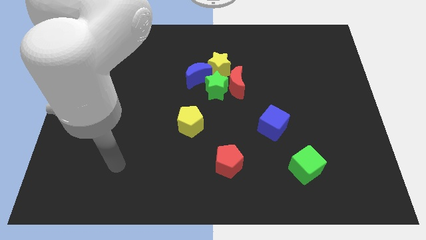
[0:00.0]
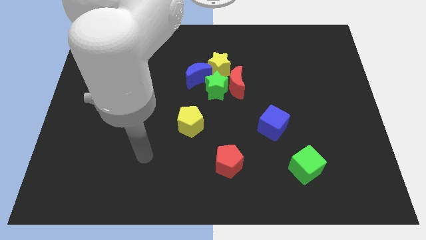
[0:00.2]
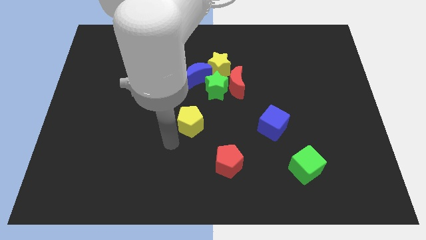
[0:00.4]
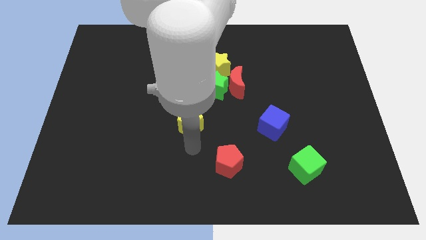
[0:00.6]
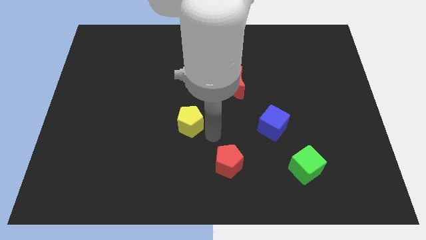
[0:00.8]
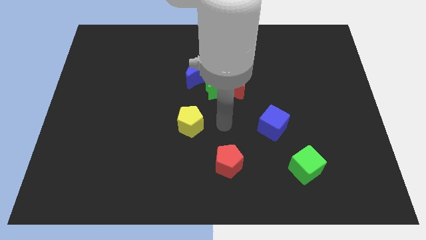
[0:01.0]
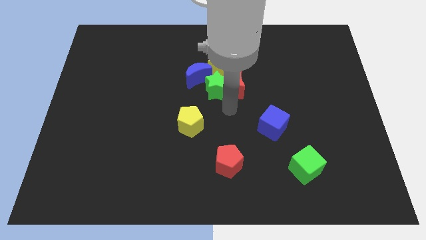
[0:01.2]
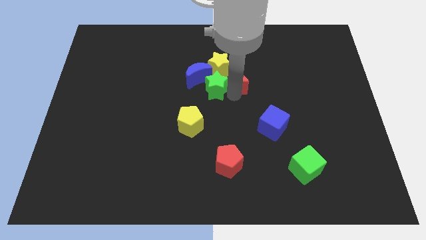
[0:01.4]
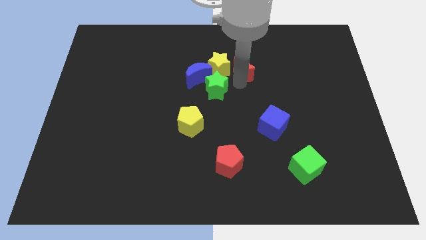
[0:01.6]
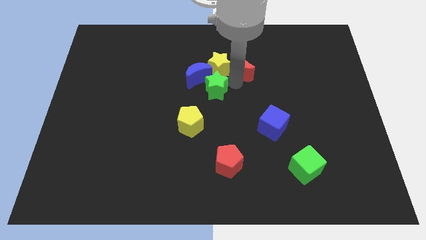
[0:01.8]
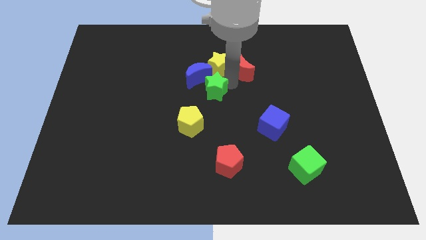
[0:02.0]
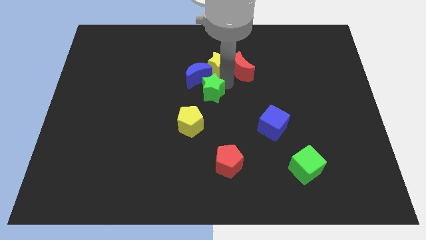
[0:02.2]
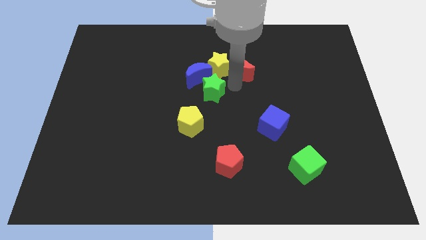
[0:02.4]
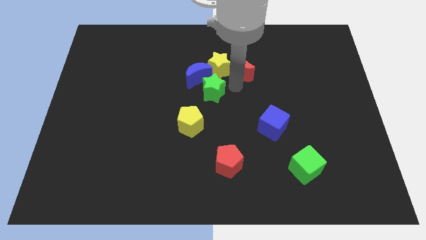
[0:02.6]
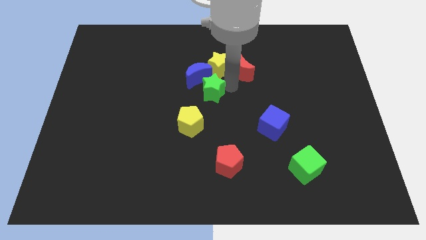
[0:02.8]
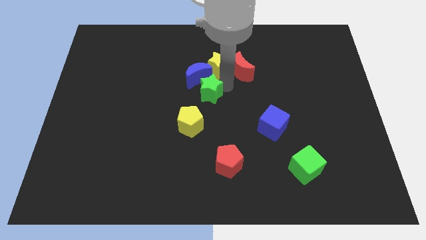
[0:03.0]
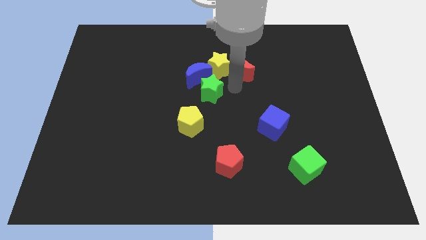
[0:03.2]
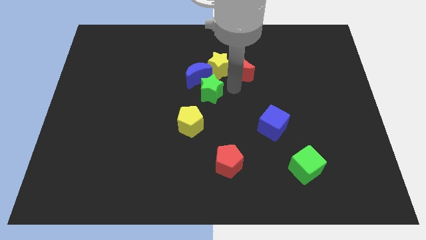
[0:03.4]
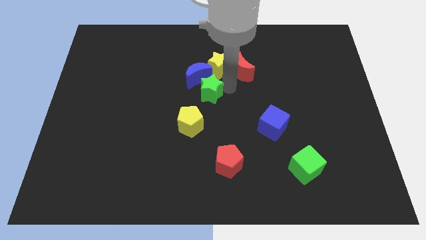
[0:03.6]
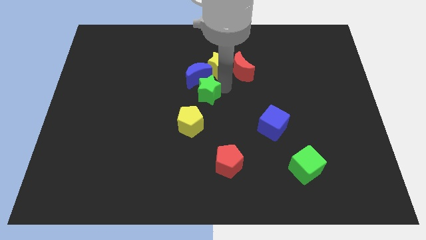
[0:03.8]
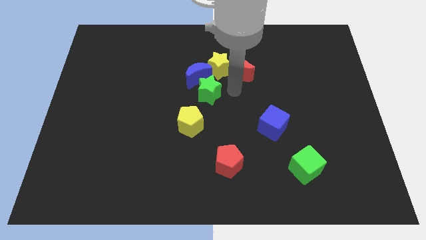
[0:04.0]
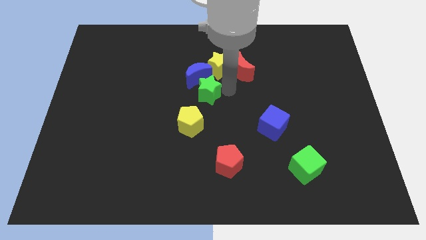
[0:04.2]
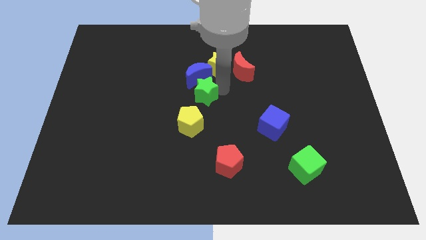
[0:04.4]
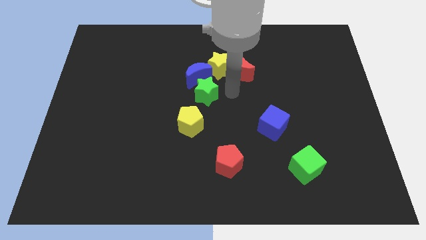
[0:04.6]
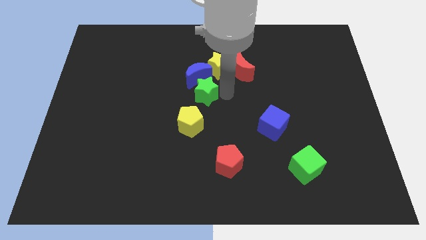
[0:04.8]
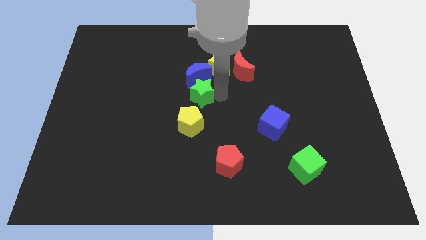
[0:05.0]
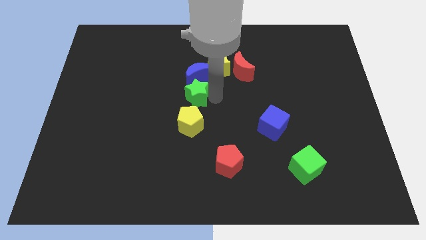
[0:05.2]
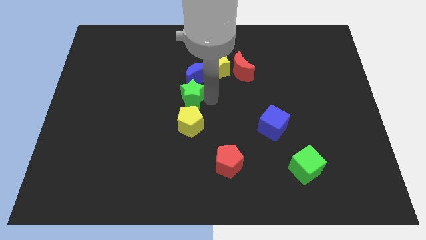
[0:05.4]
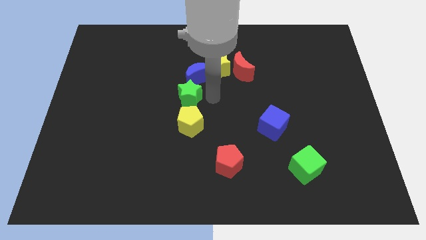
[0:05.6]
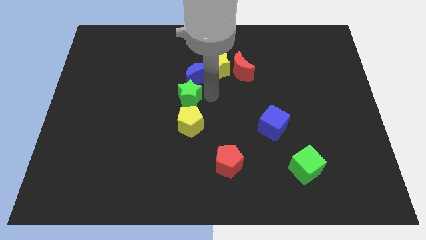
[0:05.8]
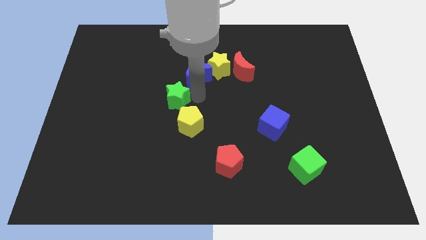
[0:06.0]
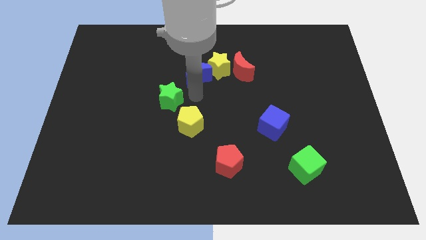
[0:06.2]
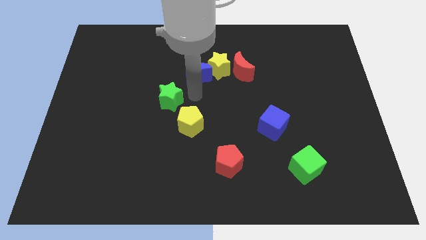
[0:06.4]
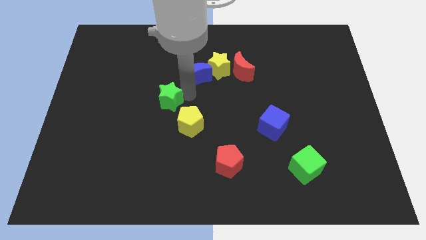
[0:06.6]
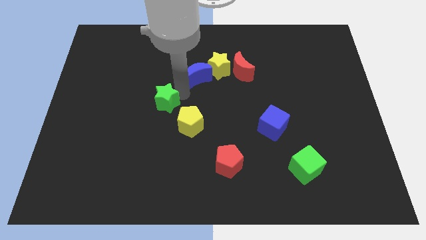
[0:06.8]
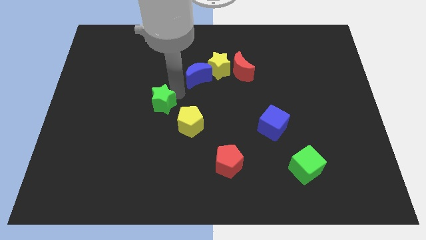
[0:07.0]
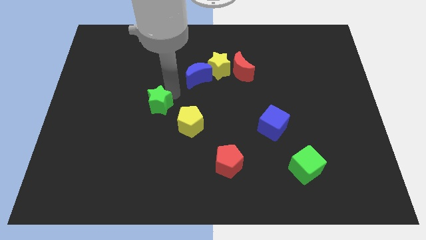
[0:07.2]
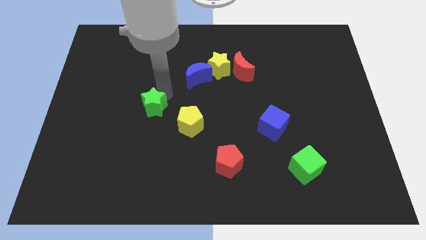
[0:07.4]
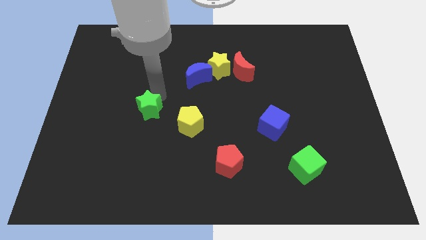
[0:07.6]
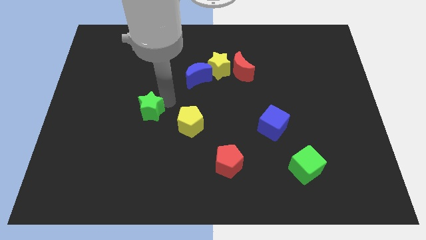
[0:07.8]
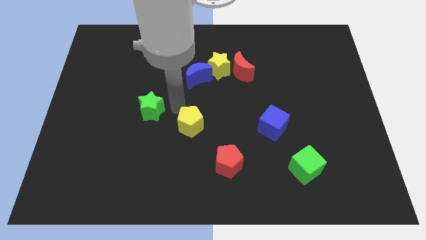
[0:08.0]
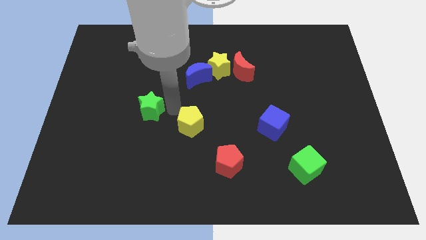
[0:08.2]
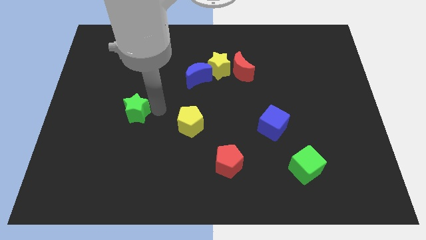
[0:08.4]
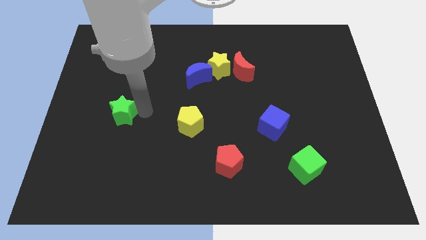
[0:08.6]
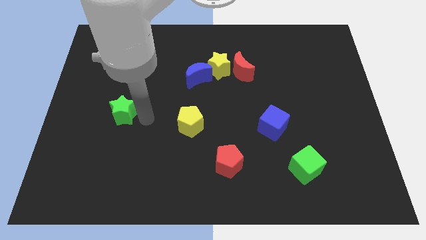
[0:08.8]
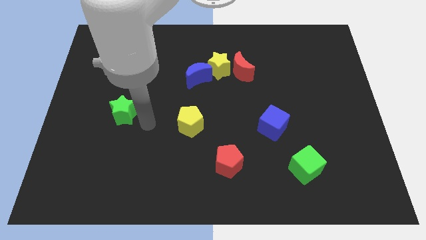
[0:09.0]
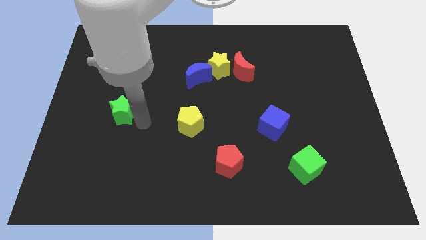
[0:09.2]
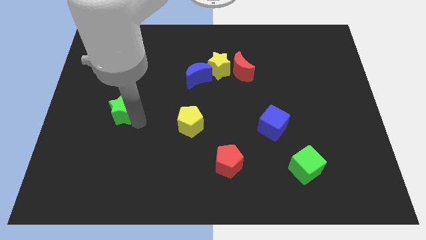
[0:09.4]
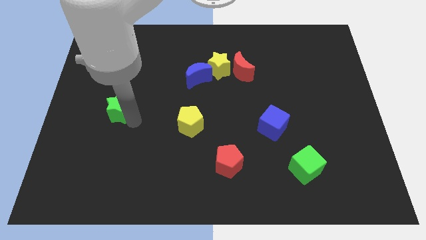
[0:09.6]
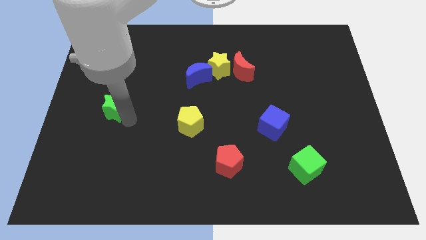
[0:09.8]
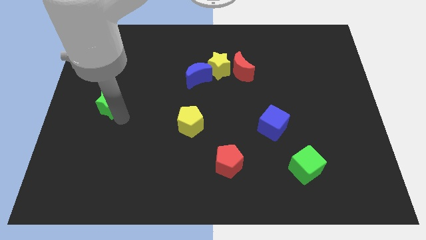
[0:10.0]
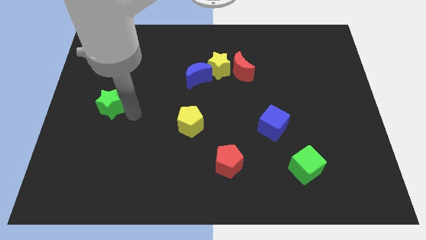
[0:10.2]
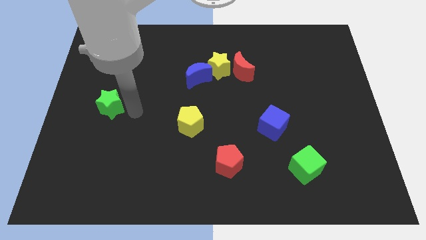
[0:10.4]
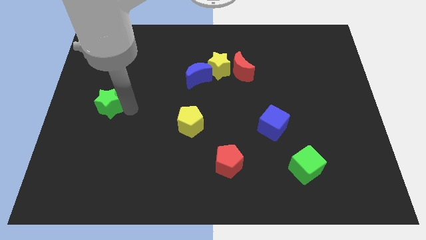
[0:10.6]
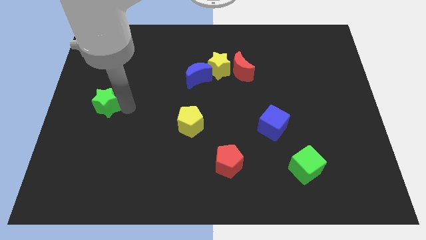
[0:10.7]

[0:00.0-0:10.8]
put the green star to the center left

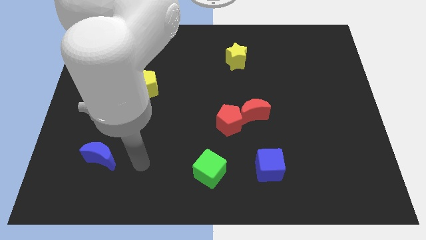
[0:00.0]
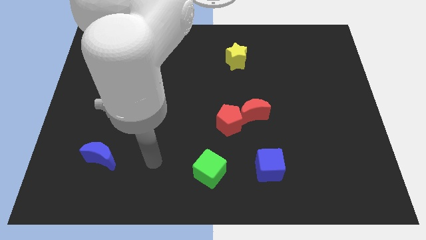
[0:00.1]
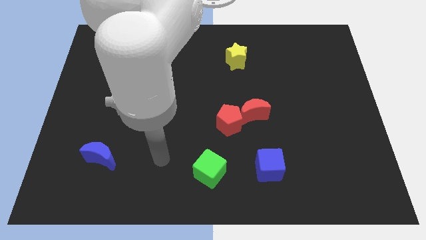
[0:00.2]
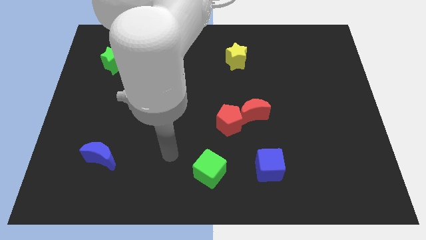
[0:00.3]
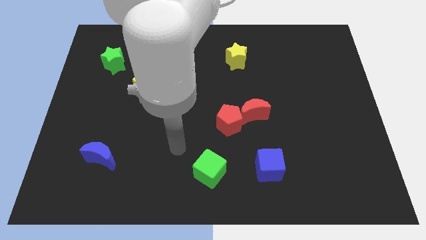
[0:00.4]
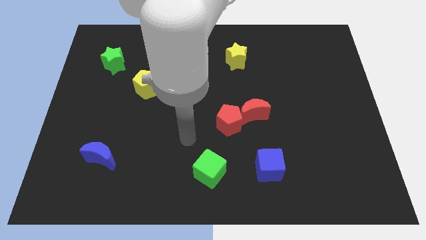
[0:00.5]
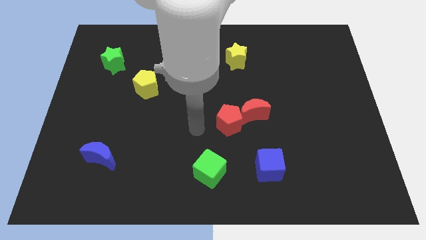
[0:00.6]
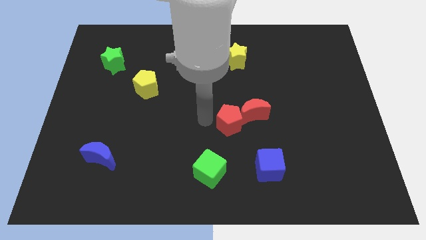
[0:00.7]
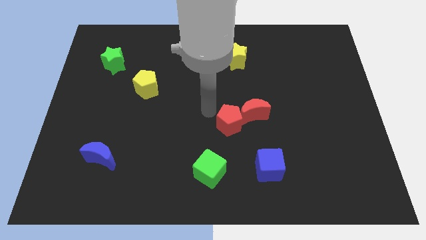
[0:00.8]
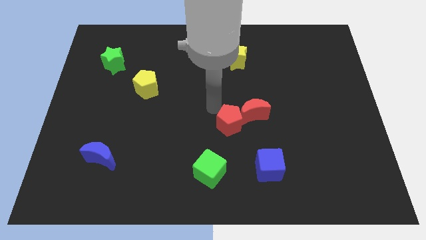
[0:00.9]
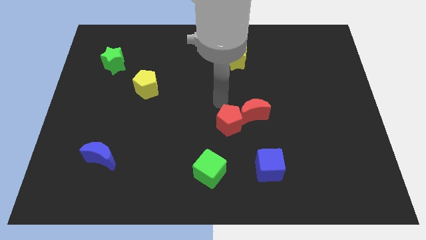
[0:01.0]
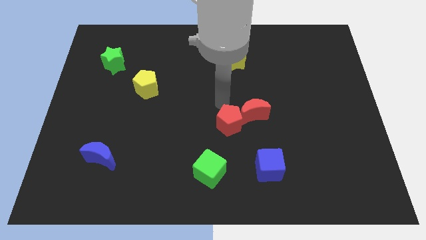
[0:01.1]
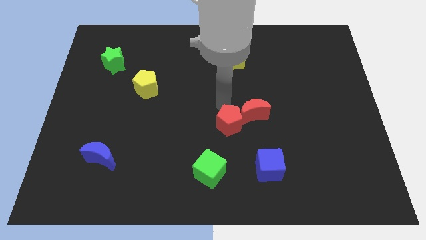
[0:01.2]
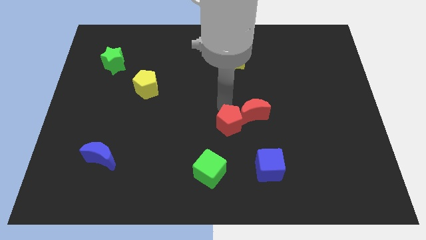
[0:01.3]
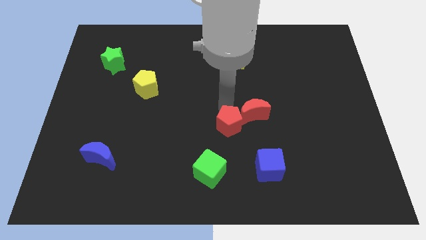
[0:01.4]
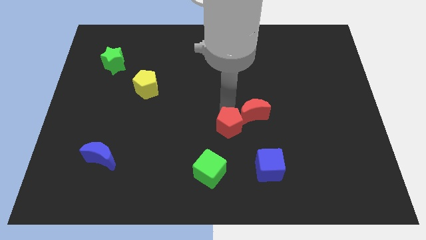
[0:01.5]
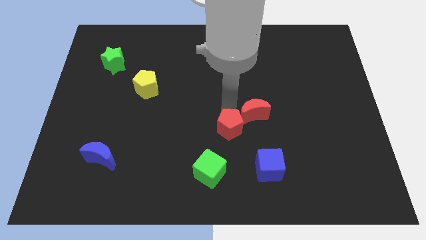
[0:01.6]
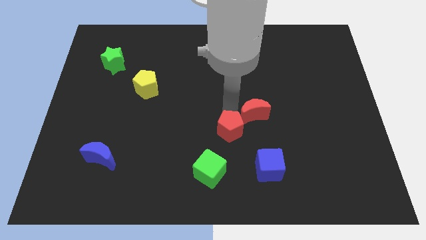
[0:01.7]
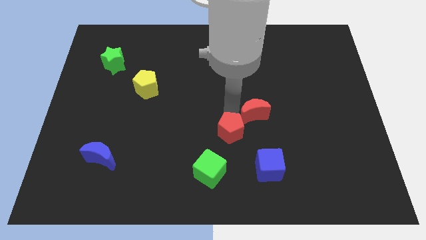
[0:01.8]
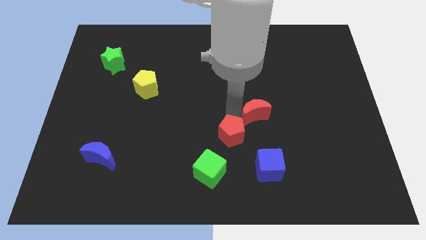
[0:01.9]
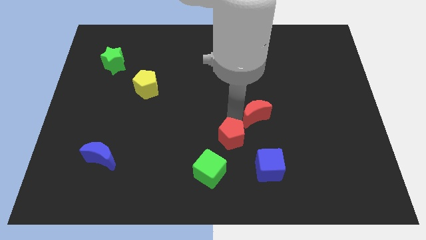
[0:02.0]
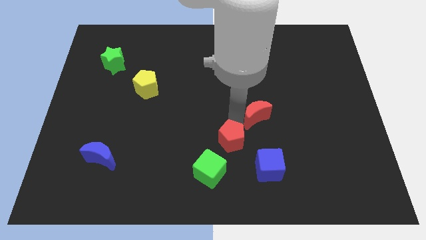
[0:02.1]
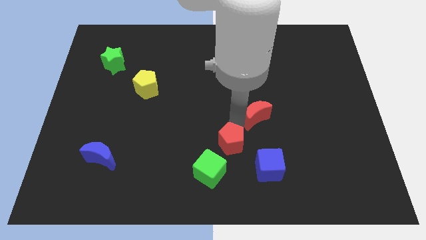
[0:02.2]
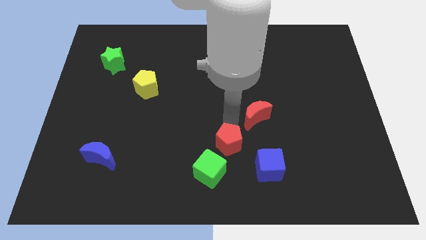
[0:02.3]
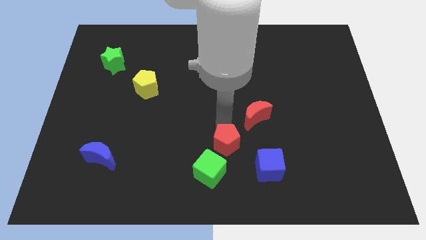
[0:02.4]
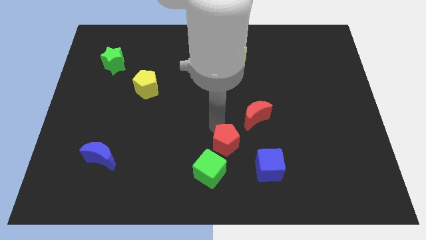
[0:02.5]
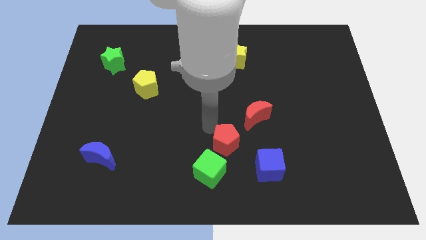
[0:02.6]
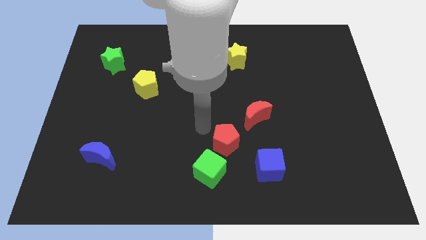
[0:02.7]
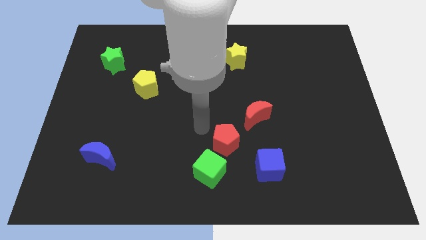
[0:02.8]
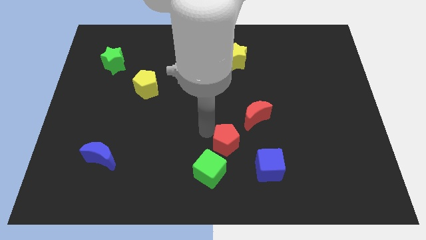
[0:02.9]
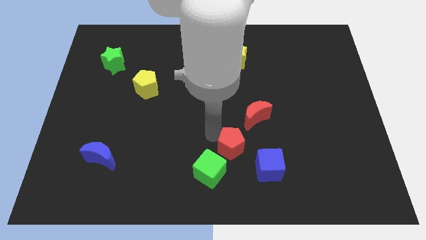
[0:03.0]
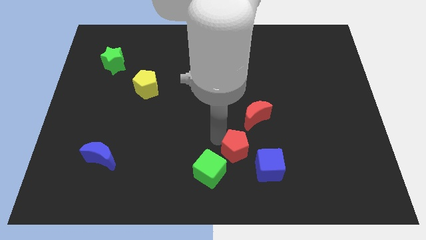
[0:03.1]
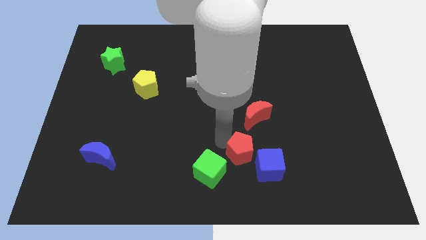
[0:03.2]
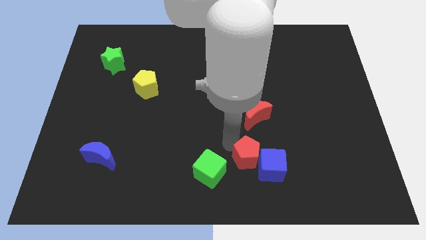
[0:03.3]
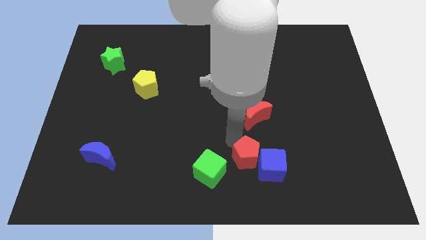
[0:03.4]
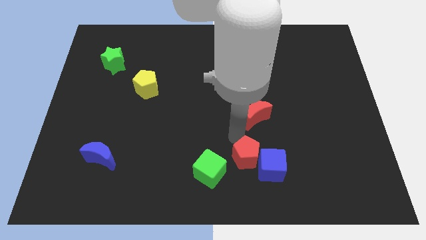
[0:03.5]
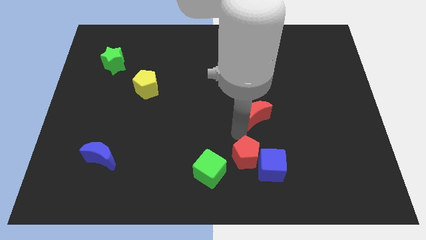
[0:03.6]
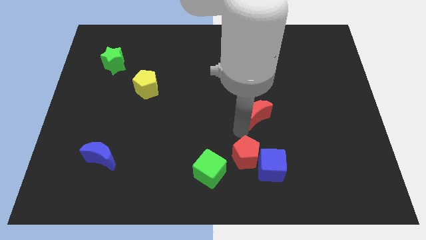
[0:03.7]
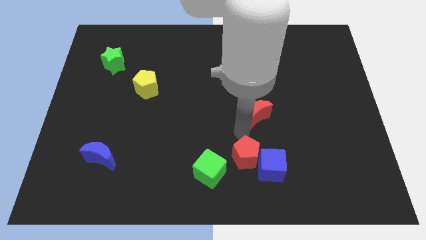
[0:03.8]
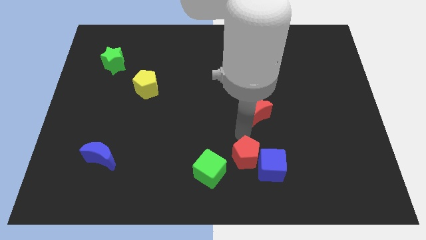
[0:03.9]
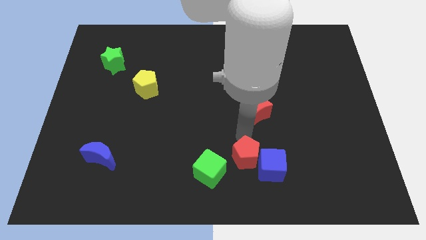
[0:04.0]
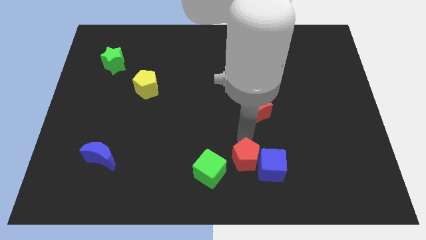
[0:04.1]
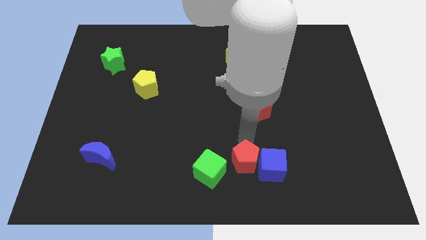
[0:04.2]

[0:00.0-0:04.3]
push the red pentagon to the bottom side
